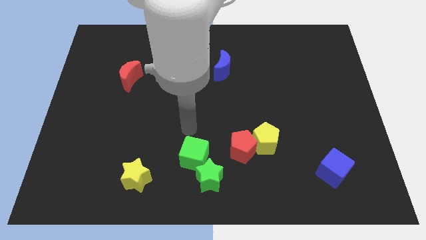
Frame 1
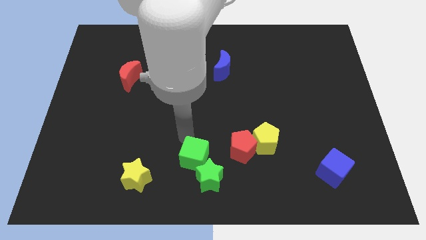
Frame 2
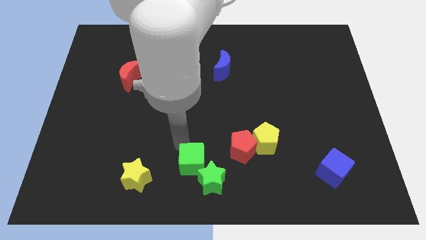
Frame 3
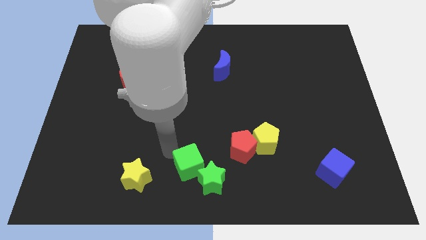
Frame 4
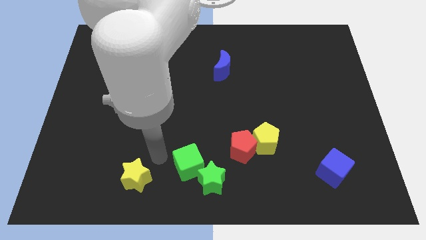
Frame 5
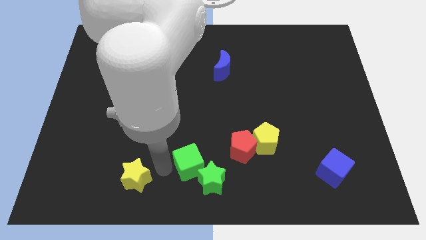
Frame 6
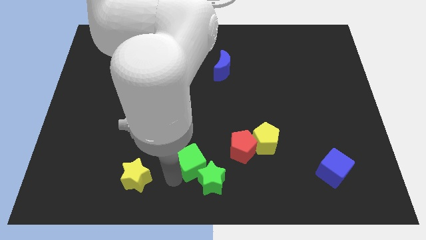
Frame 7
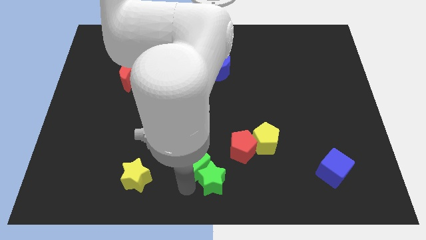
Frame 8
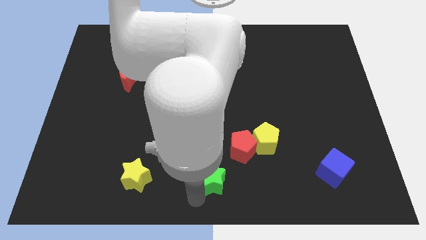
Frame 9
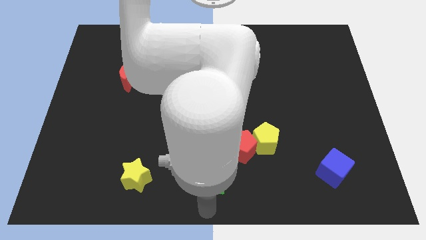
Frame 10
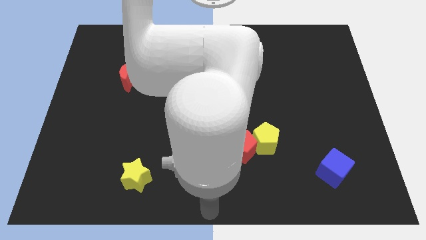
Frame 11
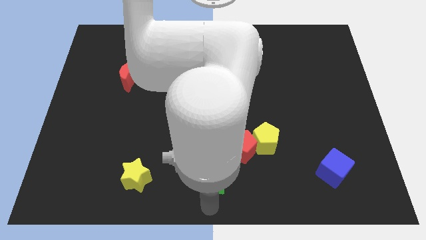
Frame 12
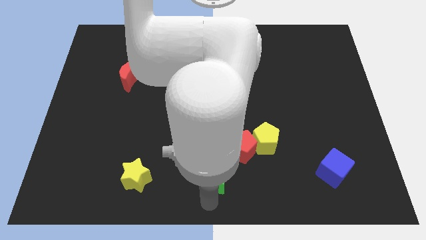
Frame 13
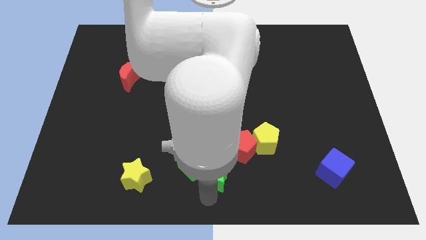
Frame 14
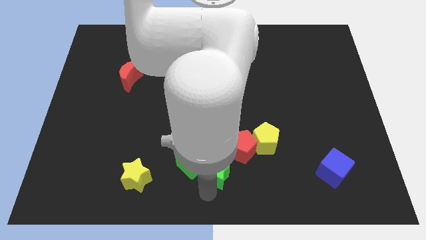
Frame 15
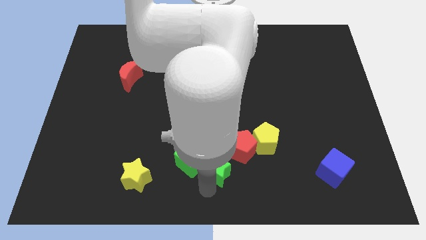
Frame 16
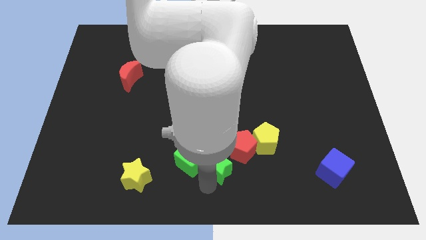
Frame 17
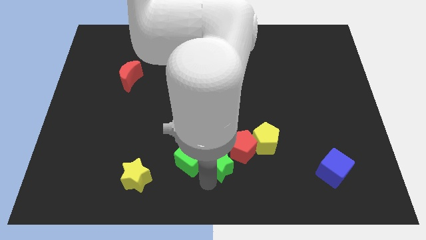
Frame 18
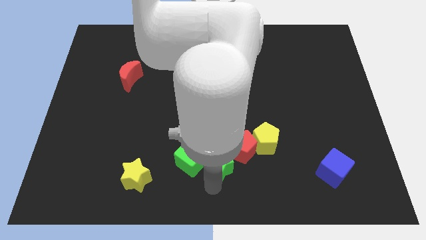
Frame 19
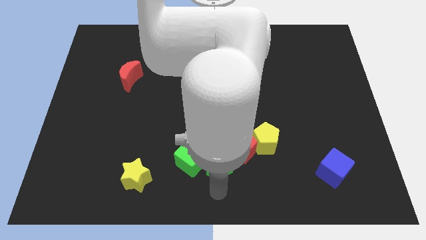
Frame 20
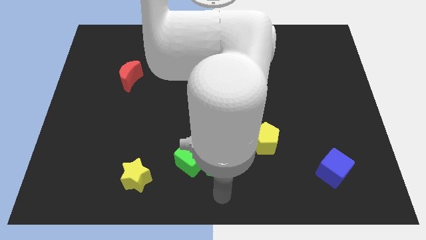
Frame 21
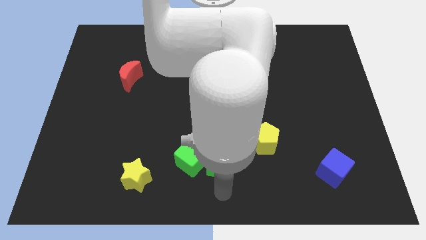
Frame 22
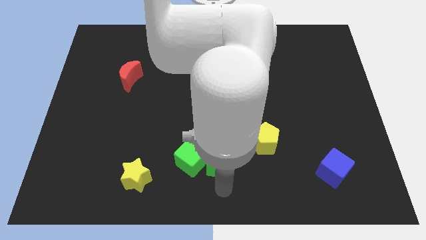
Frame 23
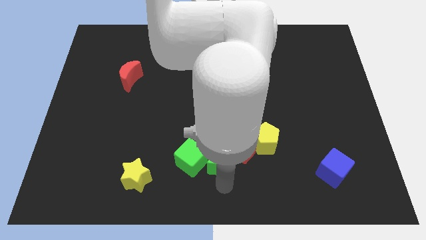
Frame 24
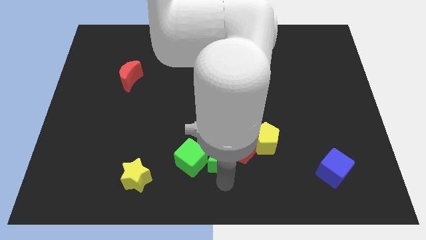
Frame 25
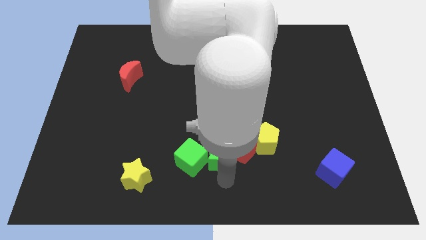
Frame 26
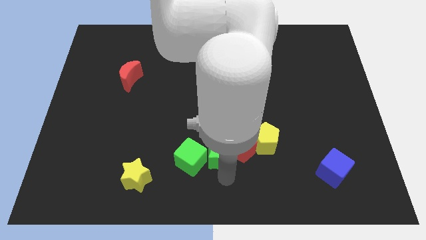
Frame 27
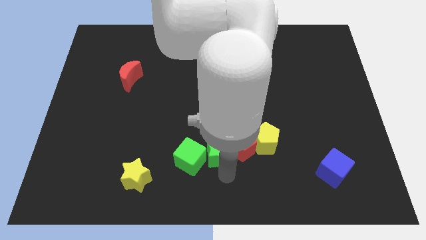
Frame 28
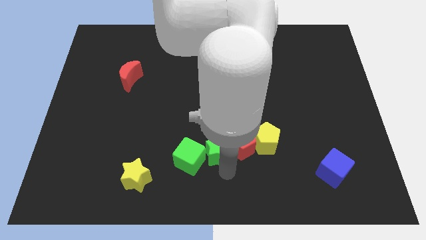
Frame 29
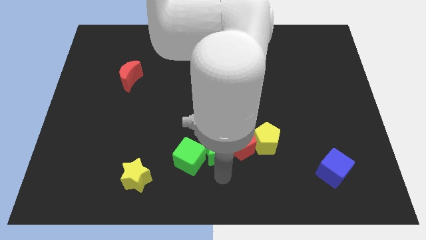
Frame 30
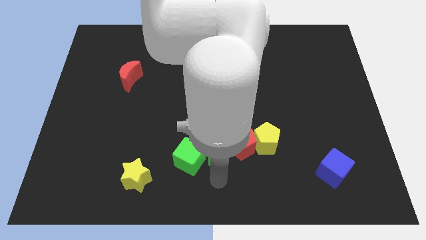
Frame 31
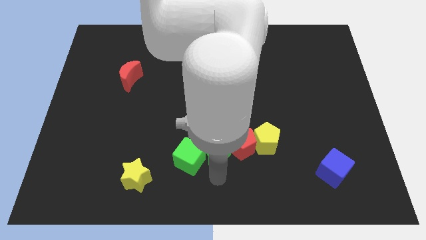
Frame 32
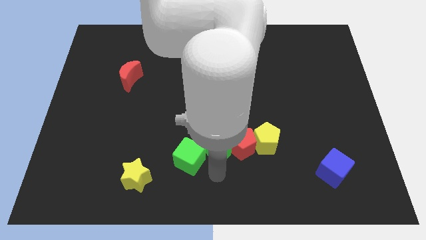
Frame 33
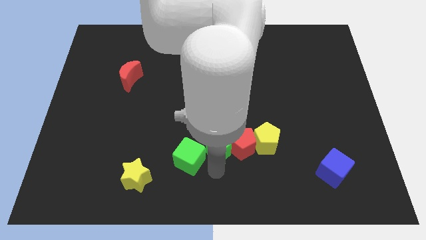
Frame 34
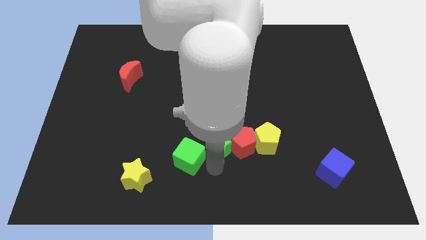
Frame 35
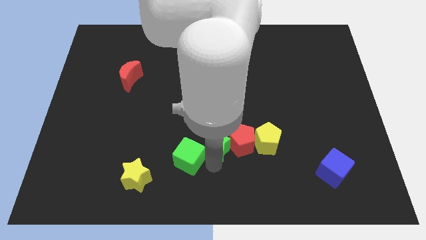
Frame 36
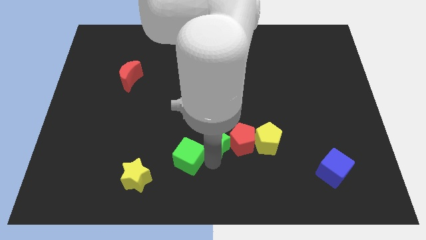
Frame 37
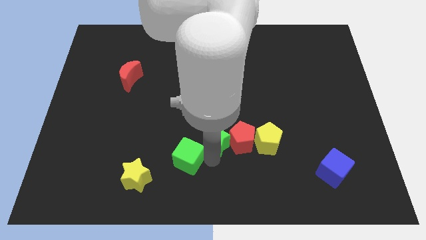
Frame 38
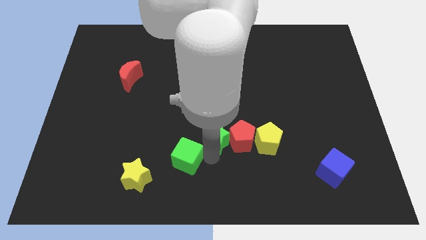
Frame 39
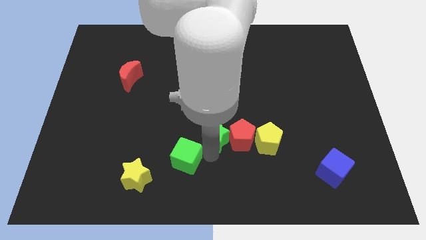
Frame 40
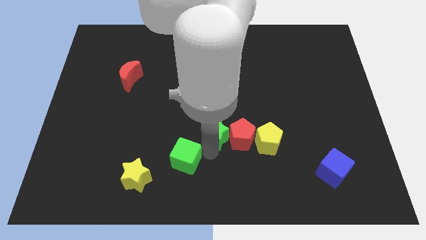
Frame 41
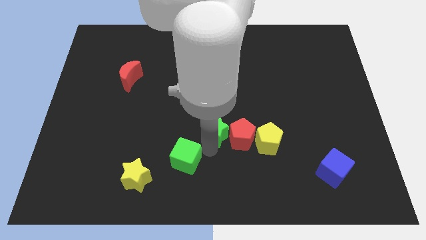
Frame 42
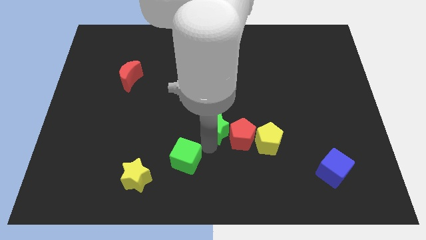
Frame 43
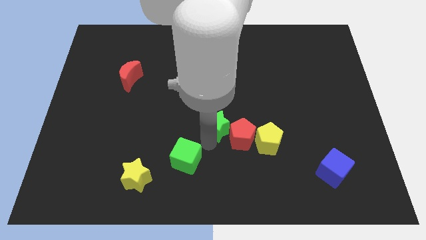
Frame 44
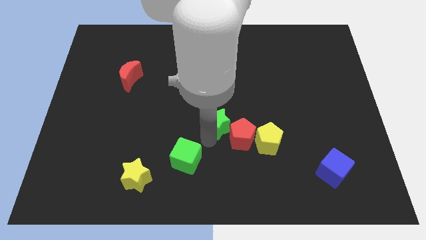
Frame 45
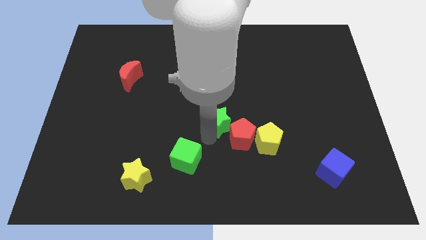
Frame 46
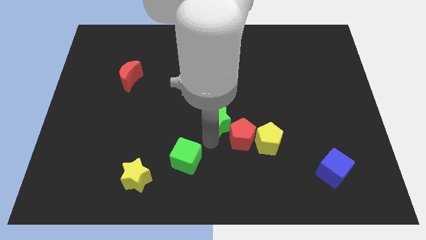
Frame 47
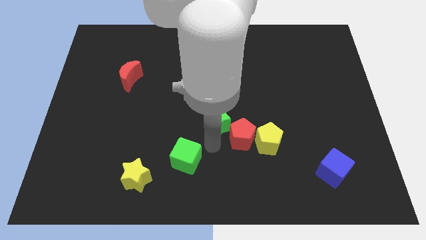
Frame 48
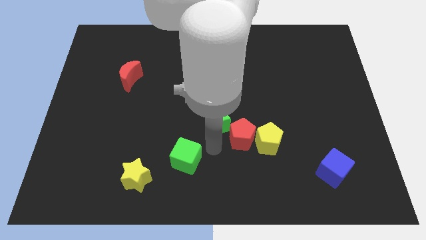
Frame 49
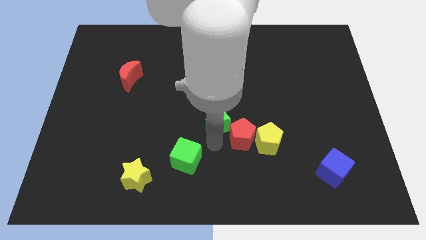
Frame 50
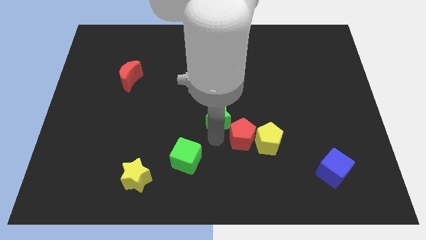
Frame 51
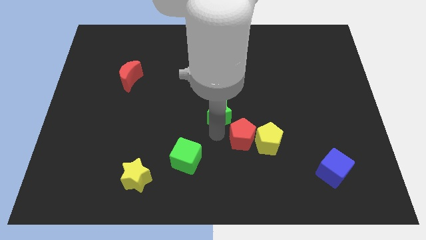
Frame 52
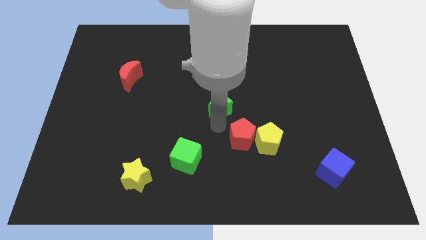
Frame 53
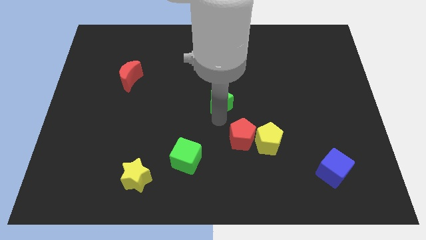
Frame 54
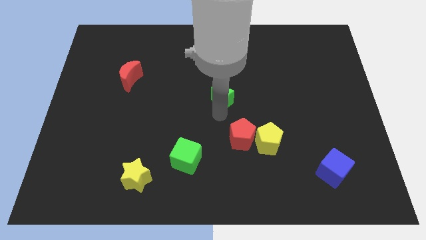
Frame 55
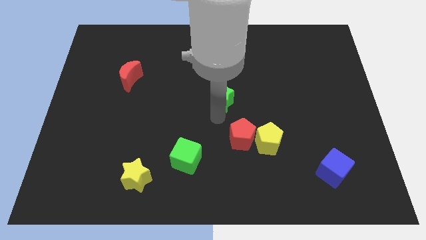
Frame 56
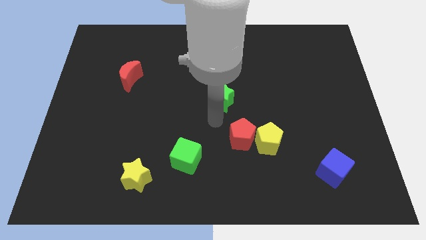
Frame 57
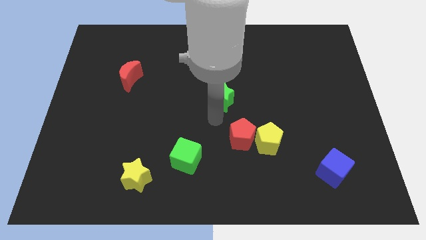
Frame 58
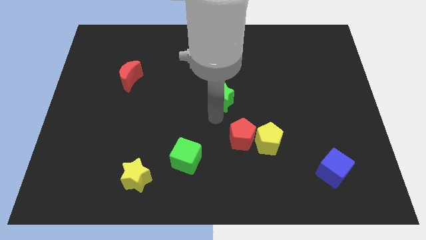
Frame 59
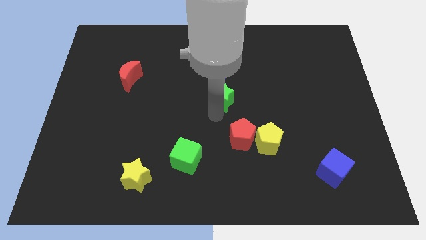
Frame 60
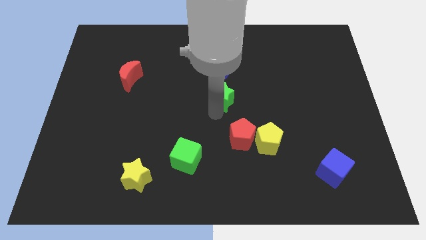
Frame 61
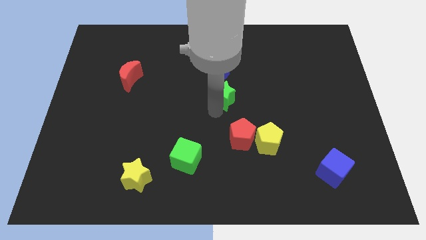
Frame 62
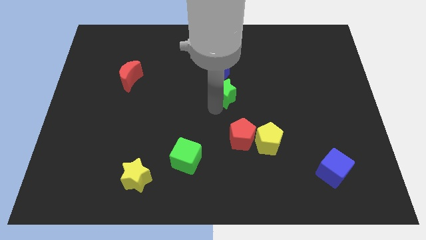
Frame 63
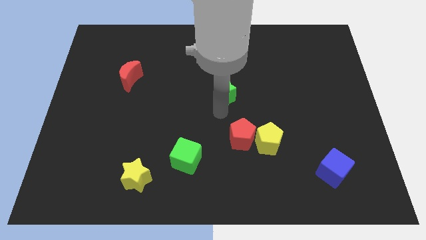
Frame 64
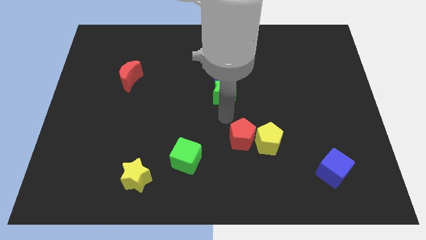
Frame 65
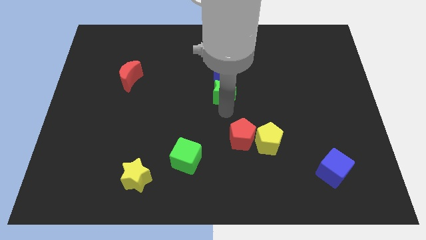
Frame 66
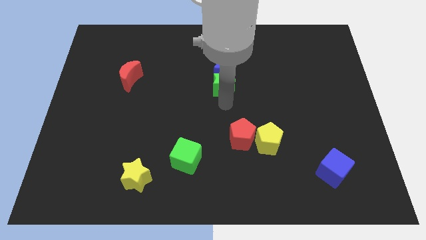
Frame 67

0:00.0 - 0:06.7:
put the green star towards the blue moon
